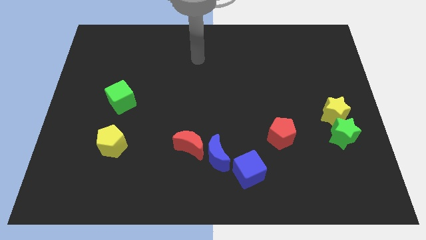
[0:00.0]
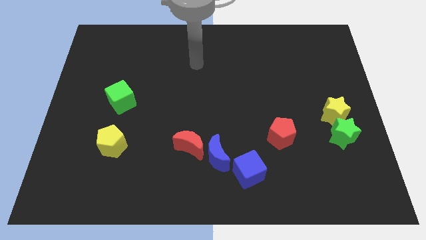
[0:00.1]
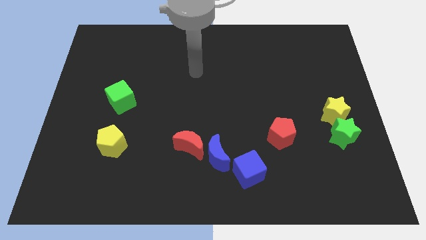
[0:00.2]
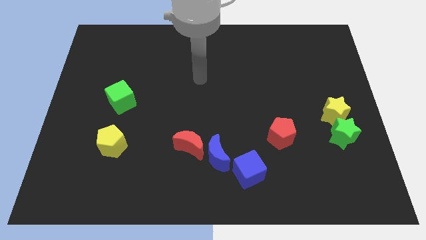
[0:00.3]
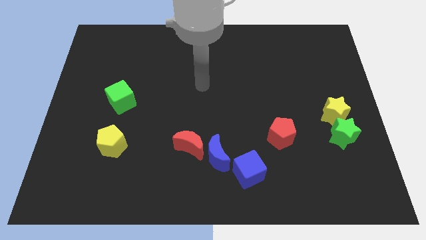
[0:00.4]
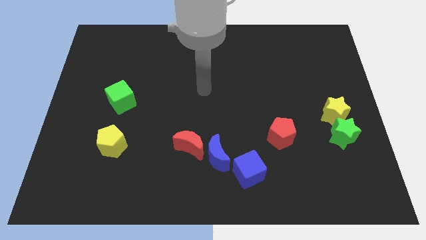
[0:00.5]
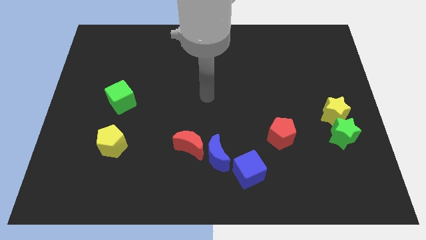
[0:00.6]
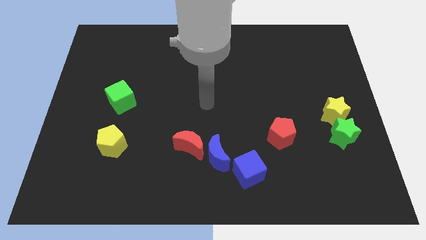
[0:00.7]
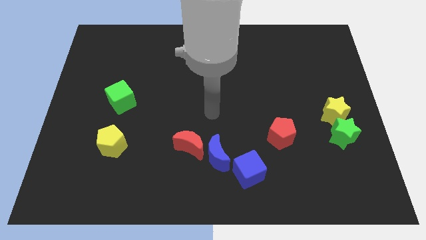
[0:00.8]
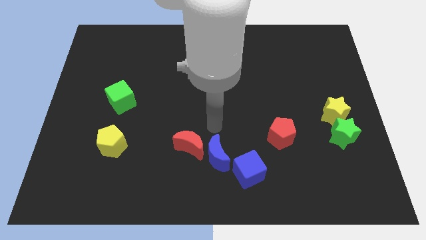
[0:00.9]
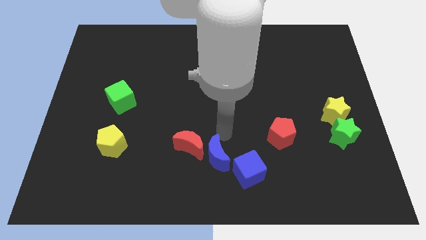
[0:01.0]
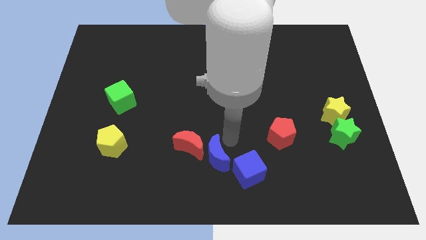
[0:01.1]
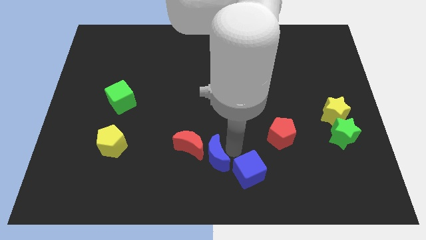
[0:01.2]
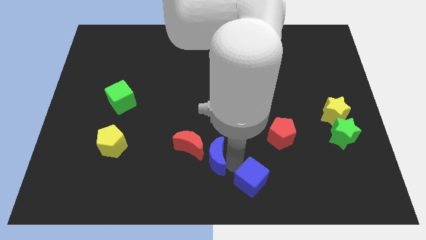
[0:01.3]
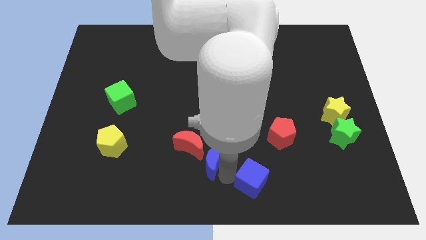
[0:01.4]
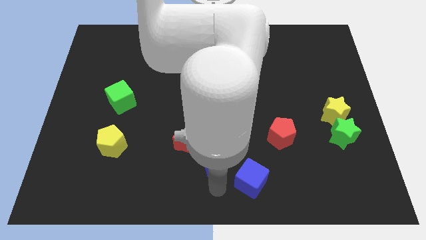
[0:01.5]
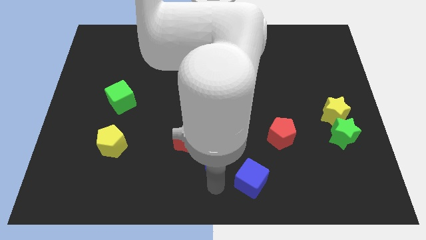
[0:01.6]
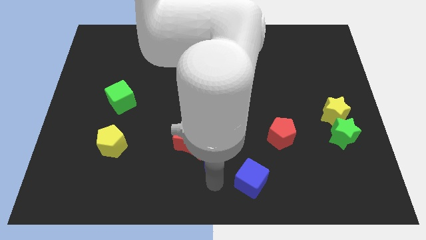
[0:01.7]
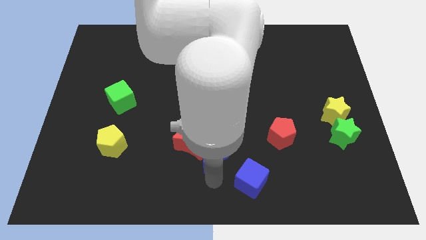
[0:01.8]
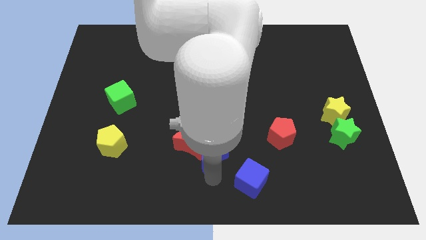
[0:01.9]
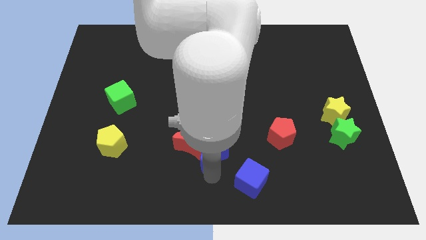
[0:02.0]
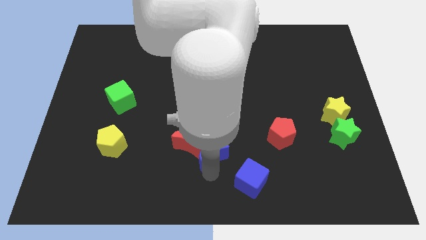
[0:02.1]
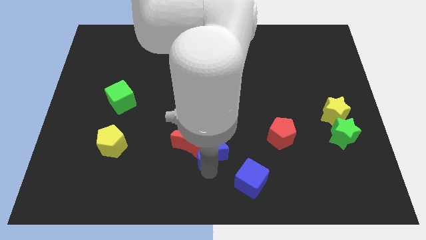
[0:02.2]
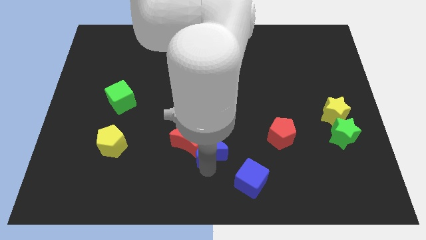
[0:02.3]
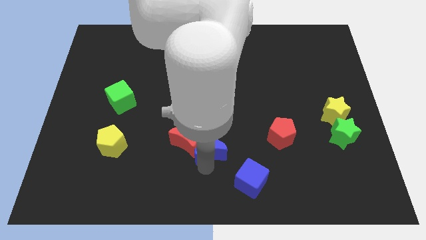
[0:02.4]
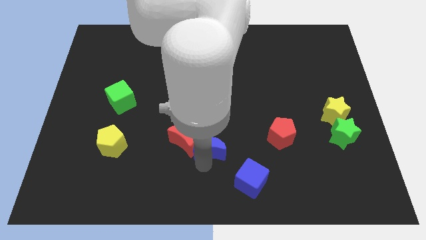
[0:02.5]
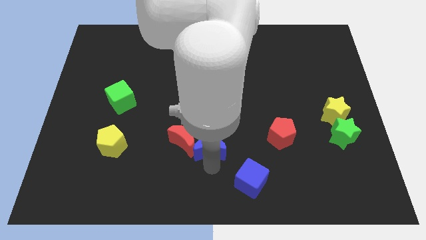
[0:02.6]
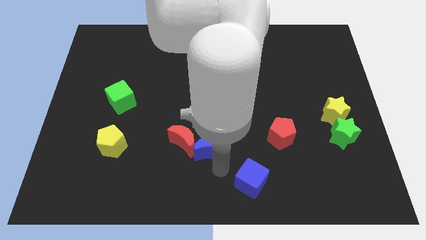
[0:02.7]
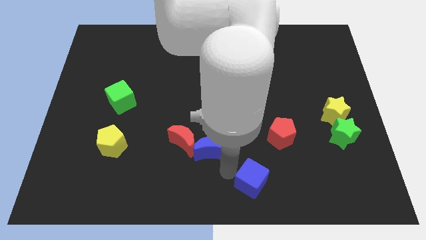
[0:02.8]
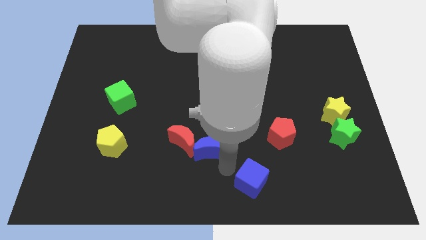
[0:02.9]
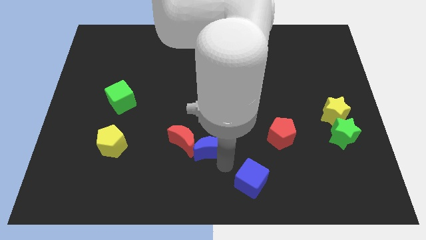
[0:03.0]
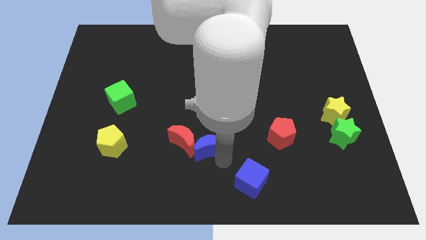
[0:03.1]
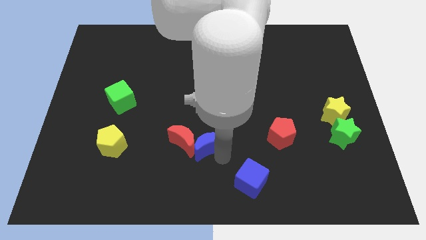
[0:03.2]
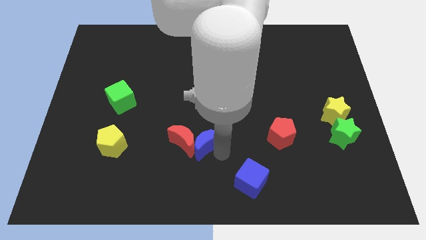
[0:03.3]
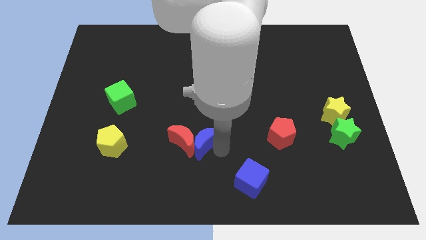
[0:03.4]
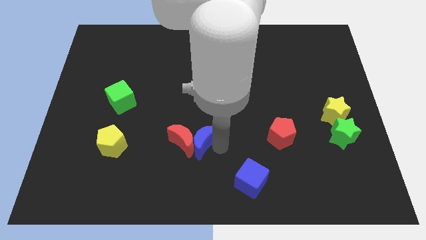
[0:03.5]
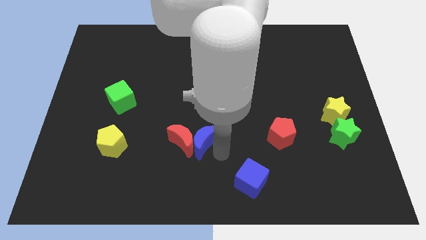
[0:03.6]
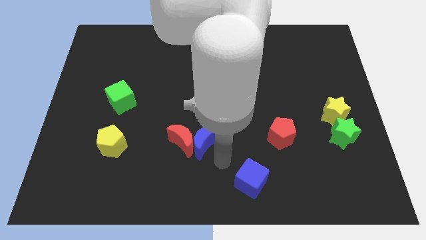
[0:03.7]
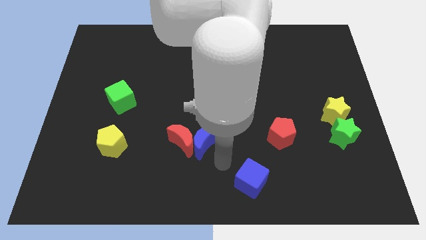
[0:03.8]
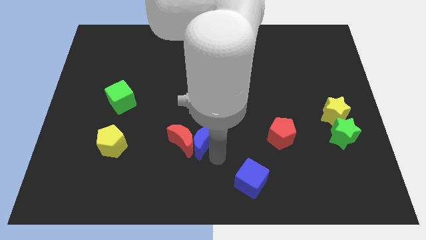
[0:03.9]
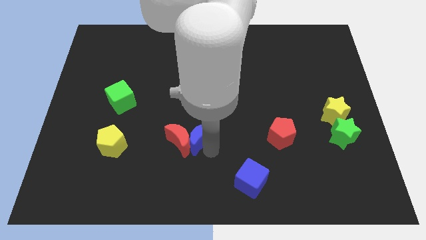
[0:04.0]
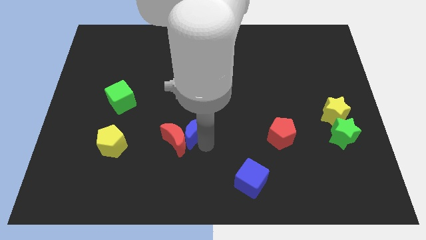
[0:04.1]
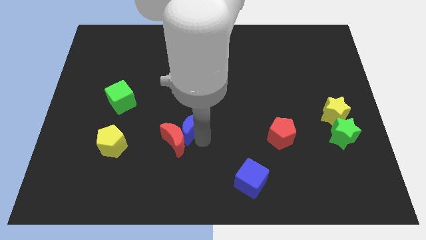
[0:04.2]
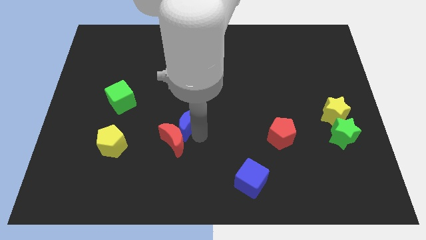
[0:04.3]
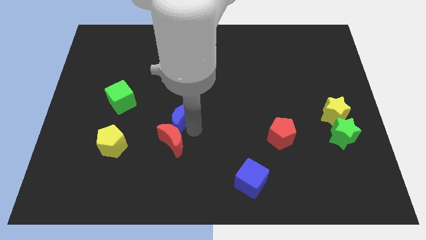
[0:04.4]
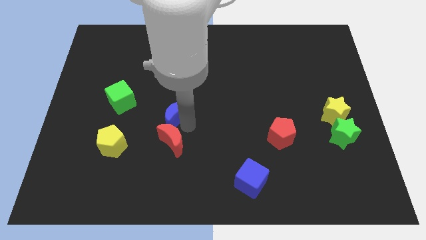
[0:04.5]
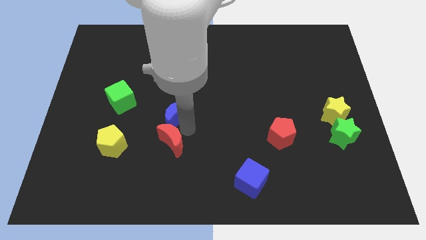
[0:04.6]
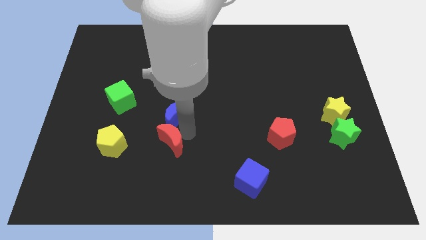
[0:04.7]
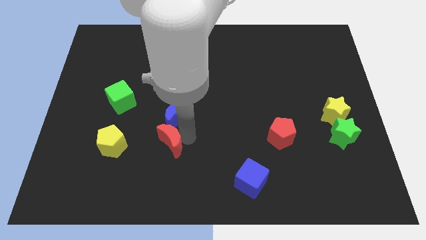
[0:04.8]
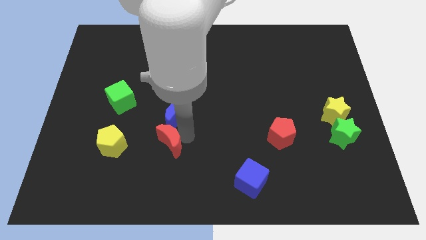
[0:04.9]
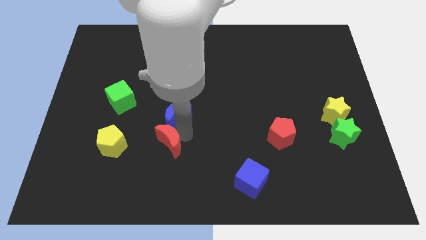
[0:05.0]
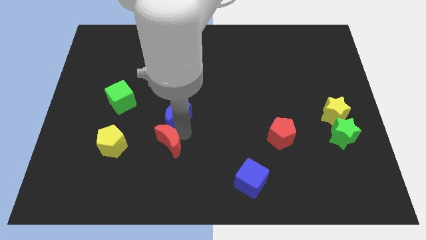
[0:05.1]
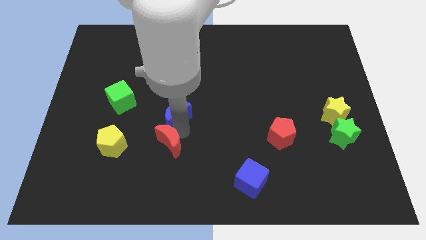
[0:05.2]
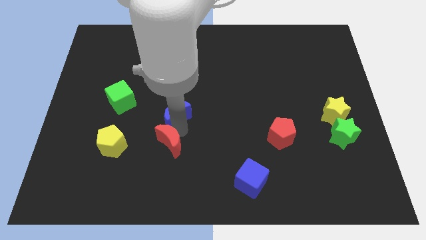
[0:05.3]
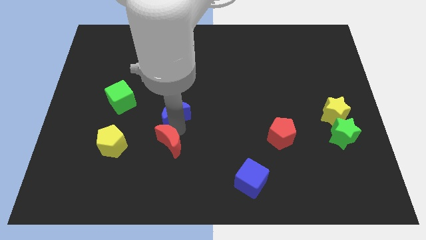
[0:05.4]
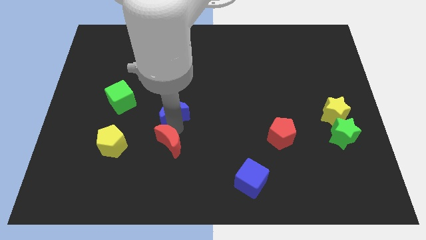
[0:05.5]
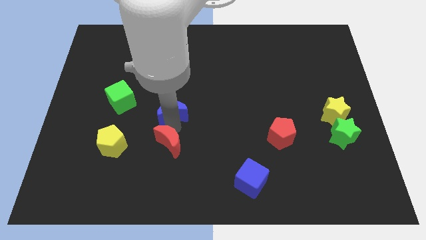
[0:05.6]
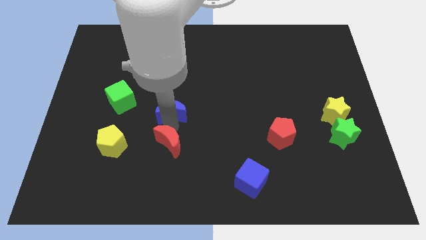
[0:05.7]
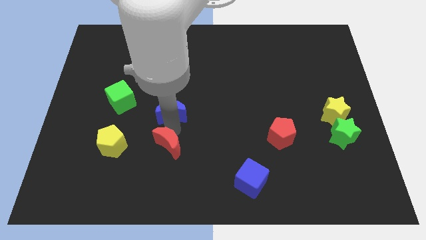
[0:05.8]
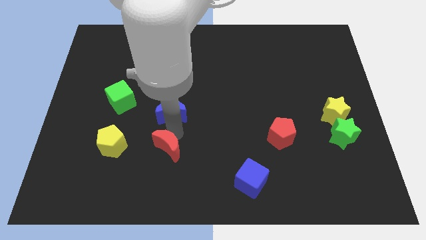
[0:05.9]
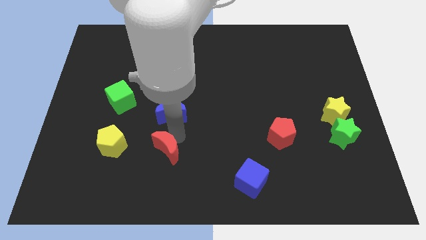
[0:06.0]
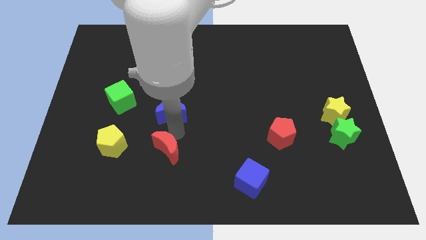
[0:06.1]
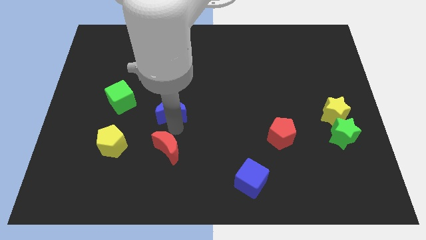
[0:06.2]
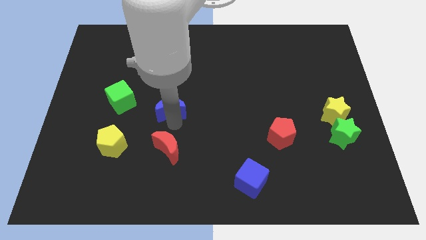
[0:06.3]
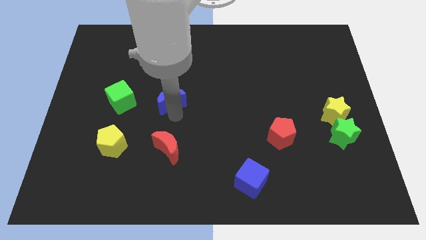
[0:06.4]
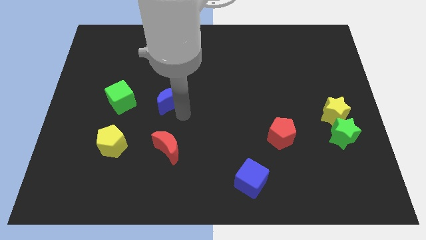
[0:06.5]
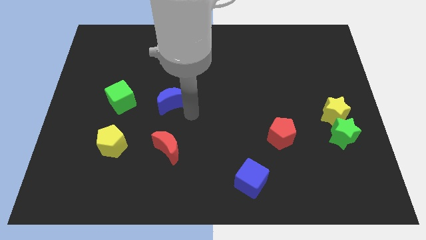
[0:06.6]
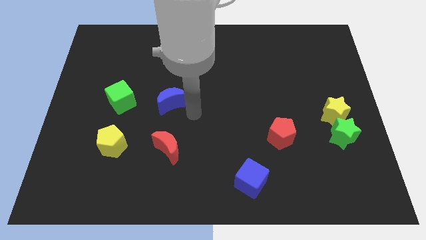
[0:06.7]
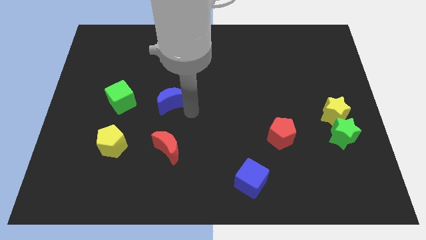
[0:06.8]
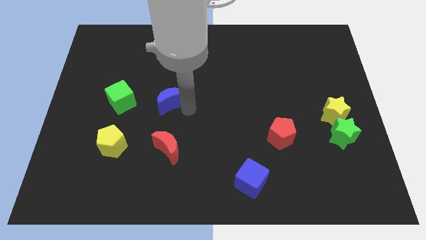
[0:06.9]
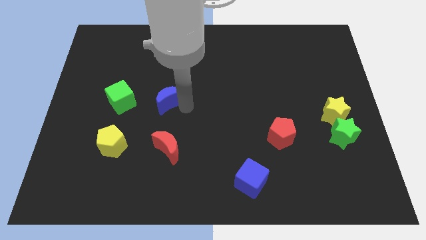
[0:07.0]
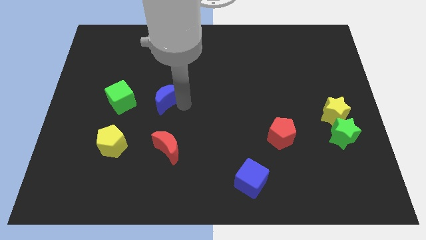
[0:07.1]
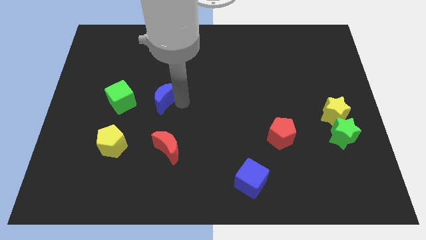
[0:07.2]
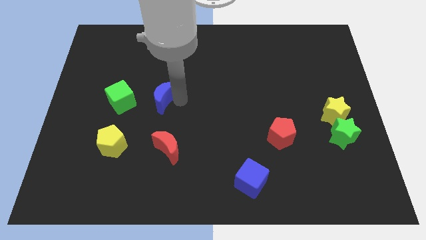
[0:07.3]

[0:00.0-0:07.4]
push the blue moon up and left diagonally
